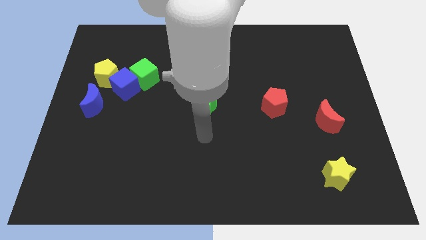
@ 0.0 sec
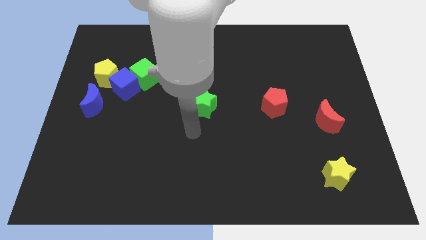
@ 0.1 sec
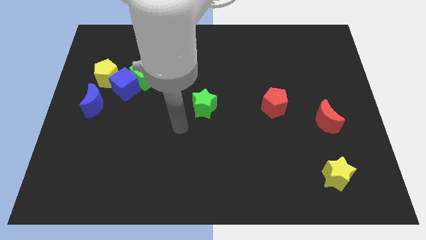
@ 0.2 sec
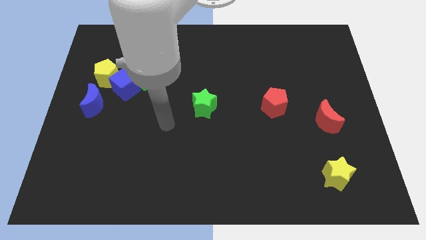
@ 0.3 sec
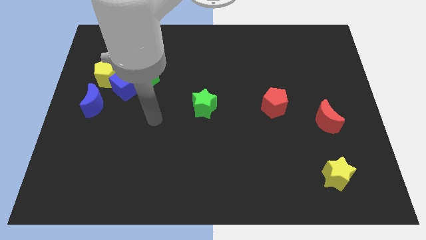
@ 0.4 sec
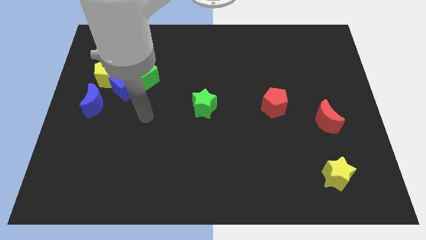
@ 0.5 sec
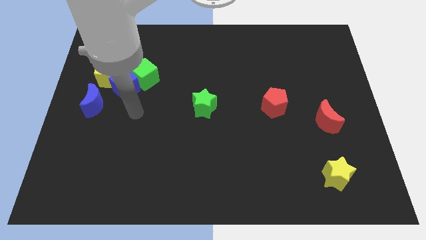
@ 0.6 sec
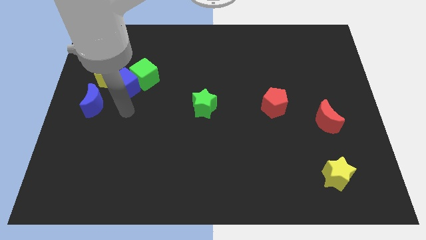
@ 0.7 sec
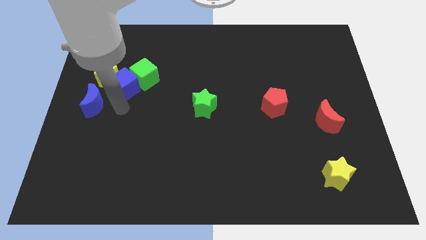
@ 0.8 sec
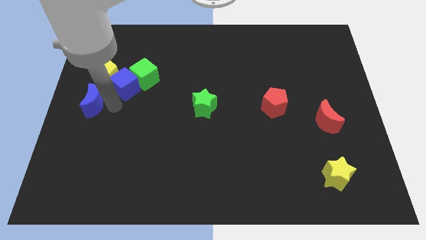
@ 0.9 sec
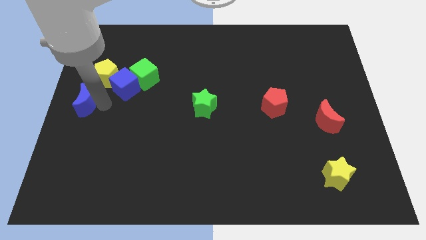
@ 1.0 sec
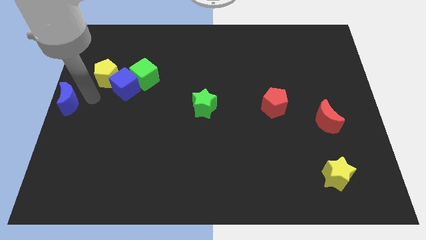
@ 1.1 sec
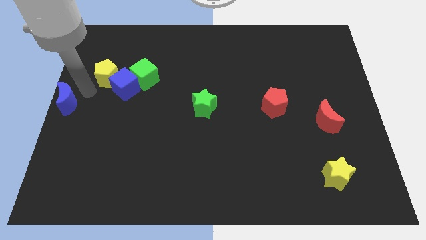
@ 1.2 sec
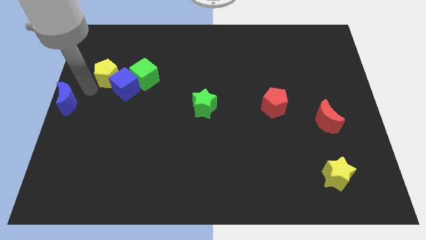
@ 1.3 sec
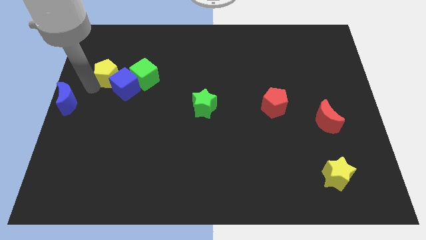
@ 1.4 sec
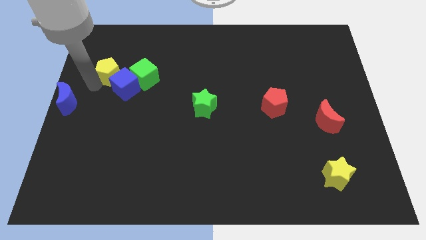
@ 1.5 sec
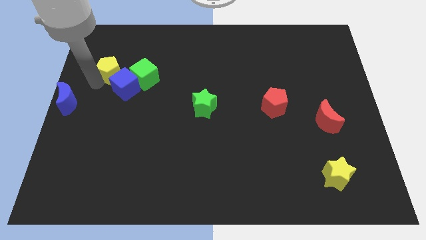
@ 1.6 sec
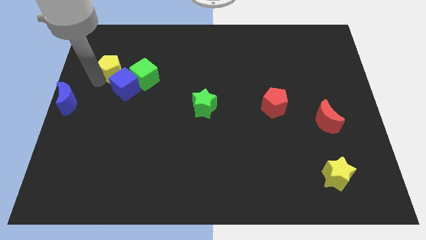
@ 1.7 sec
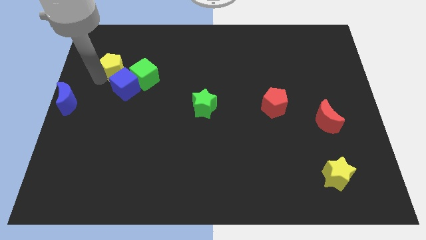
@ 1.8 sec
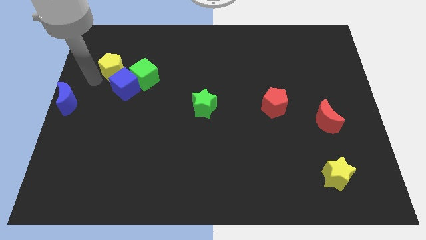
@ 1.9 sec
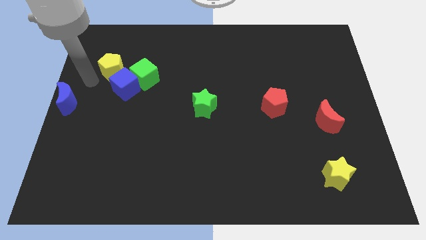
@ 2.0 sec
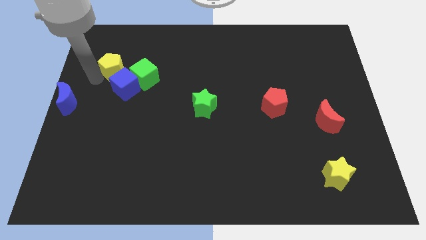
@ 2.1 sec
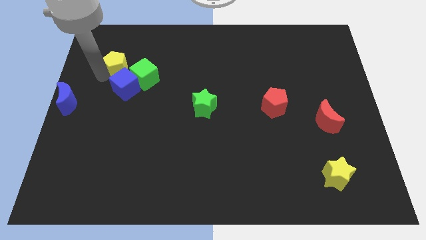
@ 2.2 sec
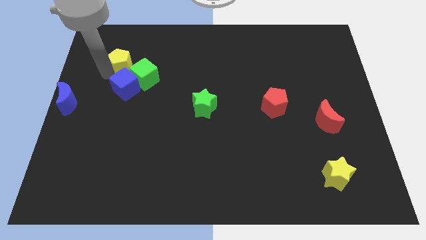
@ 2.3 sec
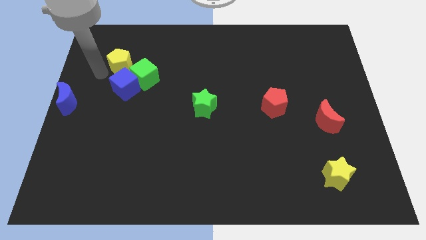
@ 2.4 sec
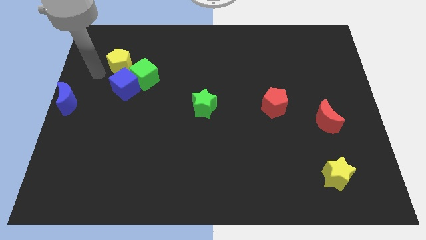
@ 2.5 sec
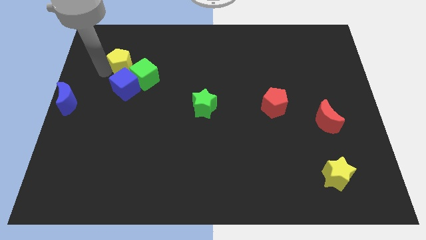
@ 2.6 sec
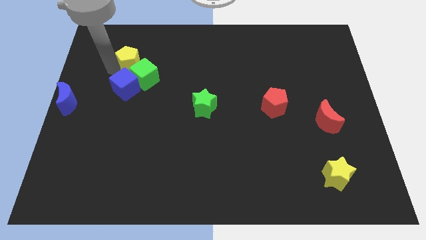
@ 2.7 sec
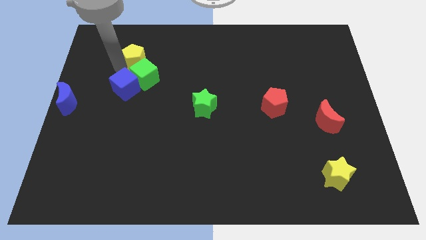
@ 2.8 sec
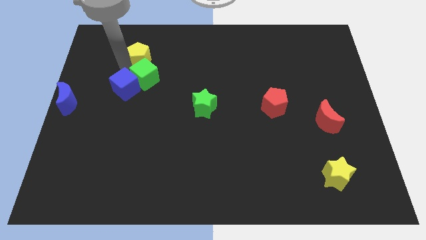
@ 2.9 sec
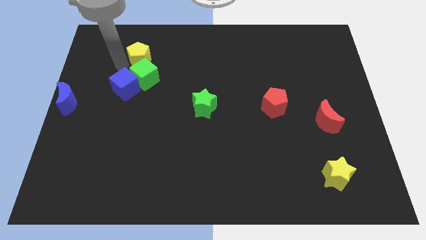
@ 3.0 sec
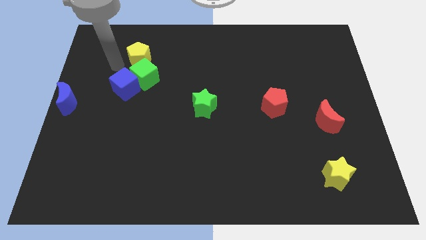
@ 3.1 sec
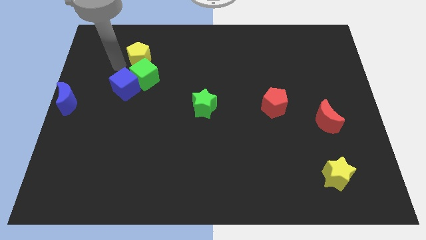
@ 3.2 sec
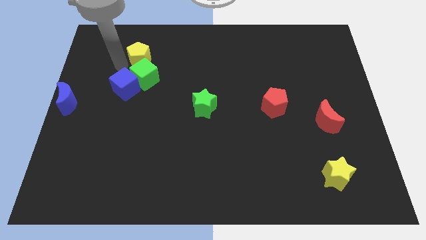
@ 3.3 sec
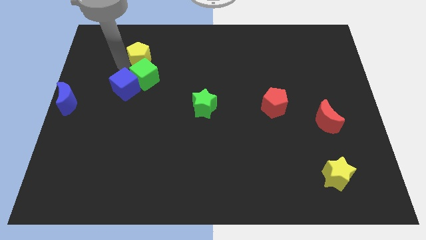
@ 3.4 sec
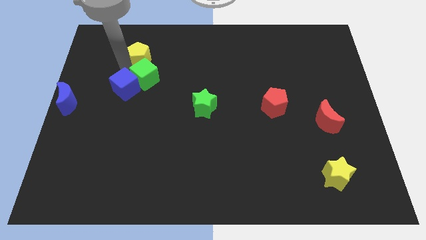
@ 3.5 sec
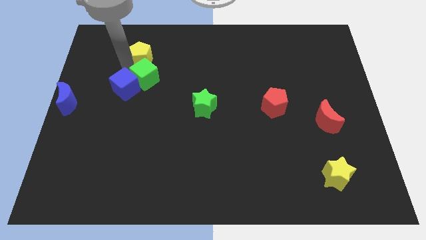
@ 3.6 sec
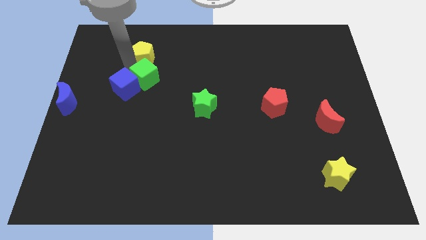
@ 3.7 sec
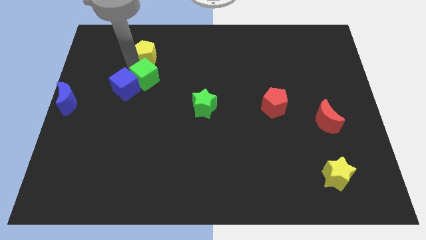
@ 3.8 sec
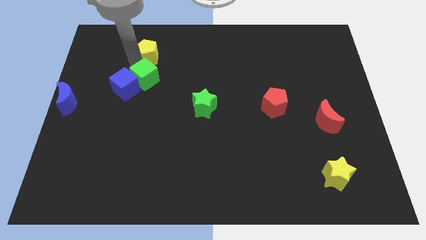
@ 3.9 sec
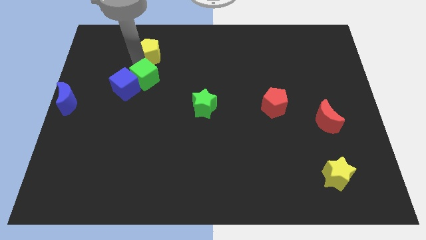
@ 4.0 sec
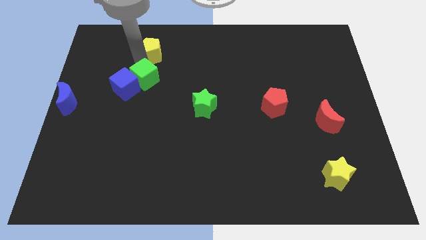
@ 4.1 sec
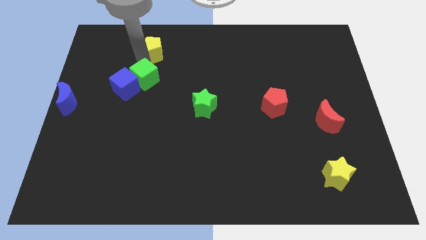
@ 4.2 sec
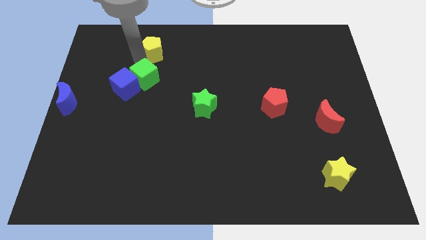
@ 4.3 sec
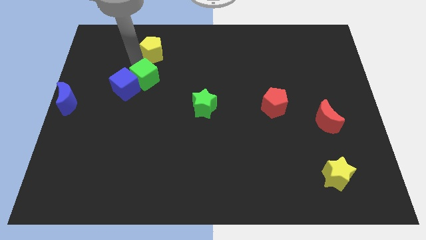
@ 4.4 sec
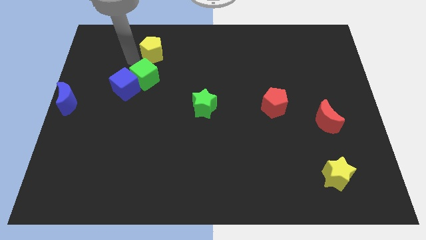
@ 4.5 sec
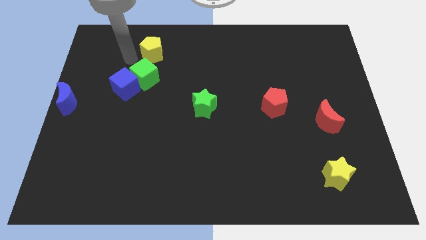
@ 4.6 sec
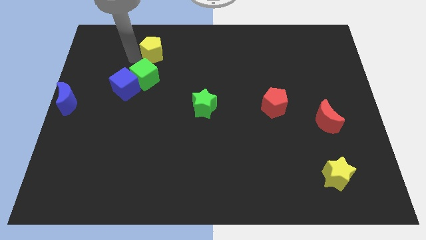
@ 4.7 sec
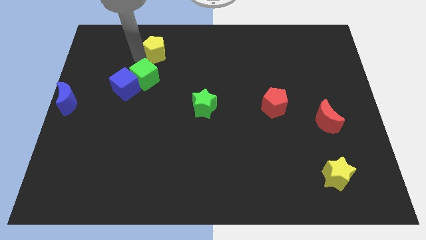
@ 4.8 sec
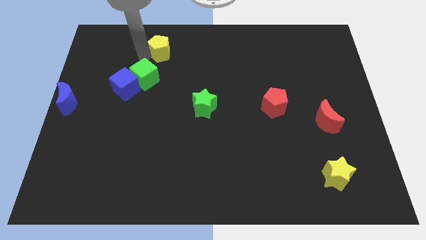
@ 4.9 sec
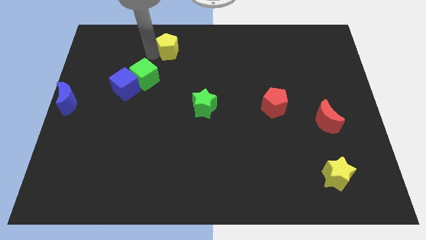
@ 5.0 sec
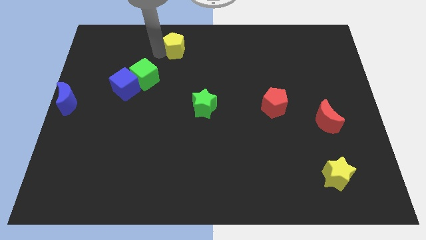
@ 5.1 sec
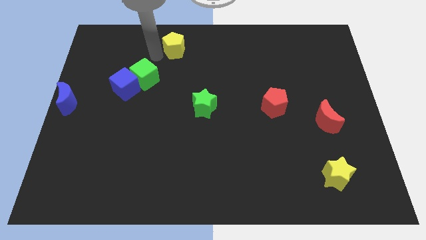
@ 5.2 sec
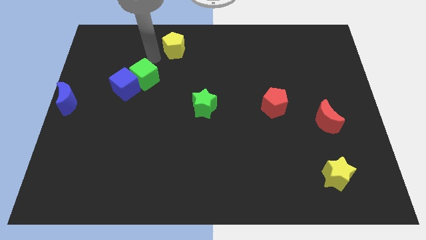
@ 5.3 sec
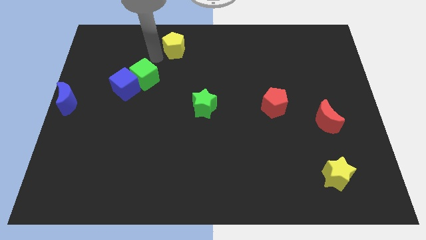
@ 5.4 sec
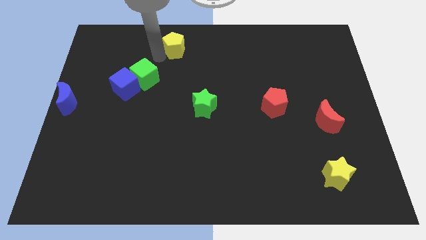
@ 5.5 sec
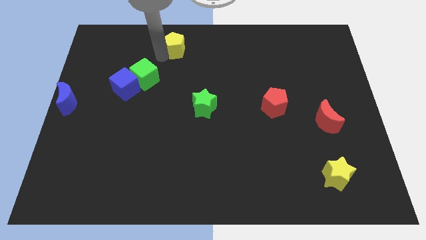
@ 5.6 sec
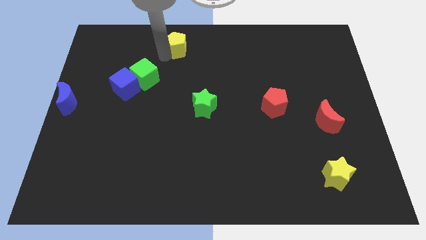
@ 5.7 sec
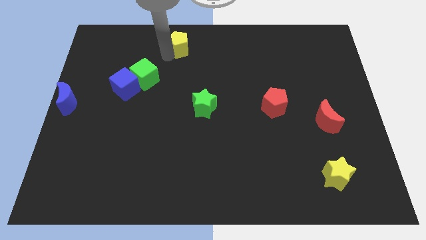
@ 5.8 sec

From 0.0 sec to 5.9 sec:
push the yellow pentagon to the towards your base
